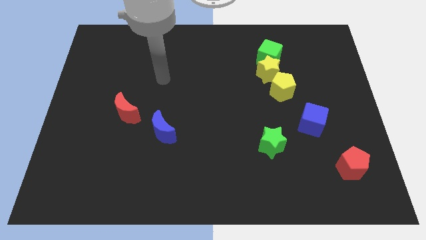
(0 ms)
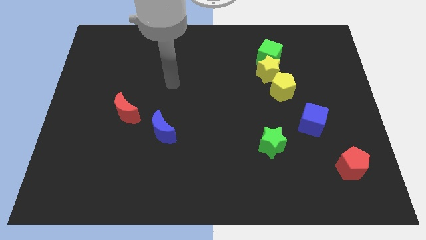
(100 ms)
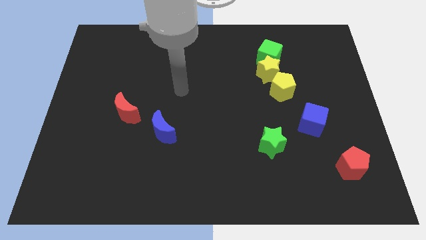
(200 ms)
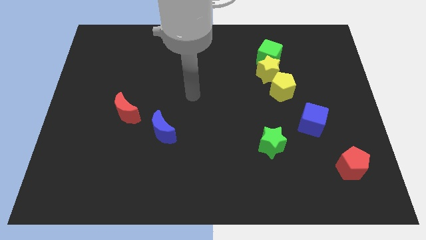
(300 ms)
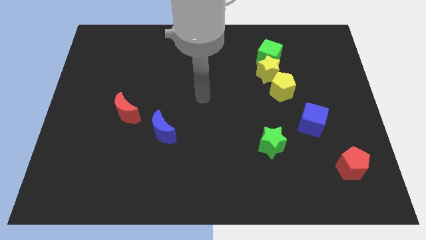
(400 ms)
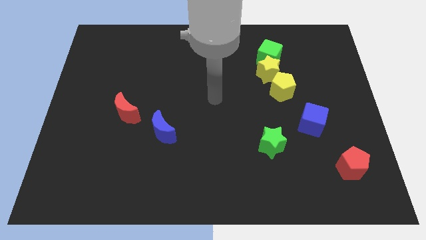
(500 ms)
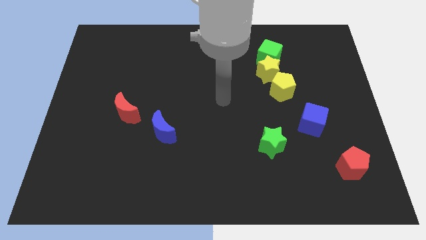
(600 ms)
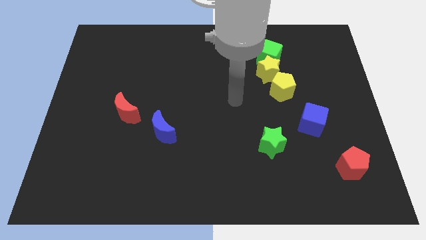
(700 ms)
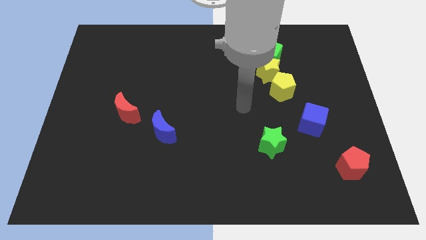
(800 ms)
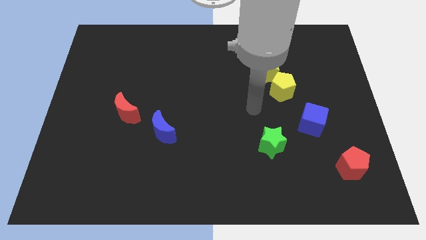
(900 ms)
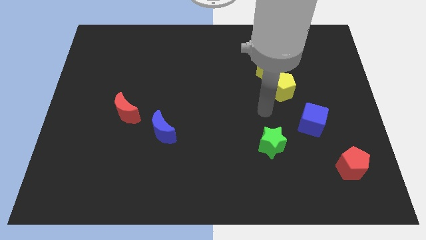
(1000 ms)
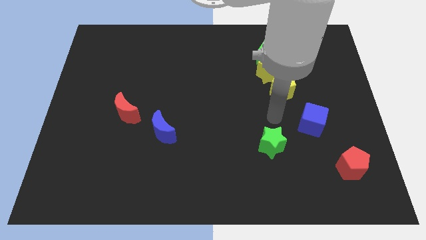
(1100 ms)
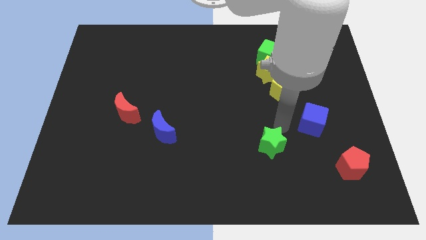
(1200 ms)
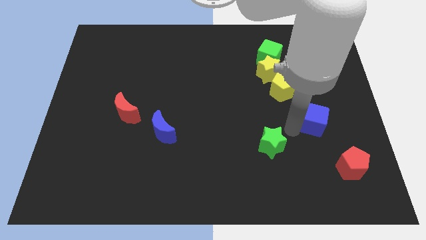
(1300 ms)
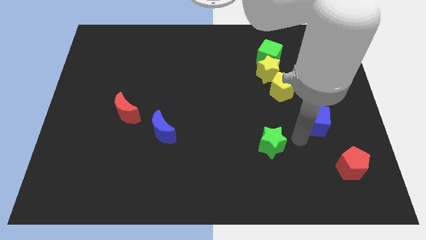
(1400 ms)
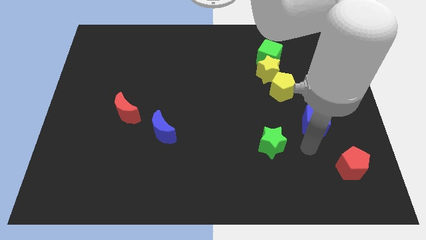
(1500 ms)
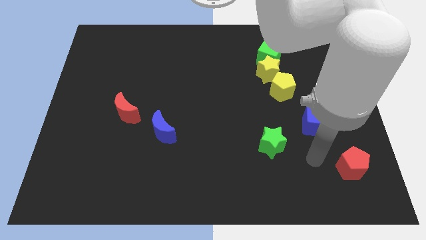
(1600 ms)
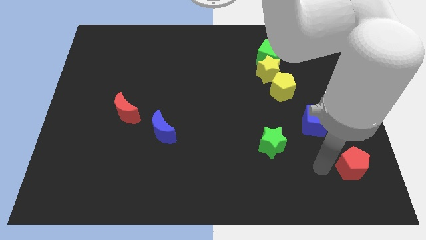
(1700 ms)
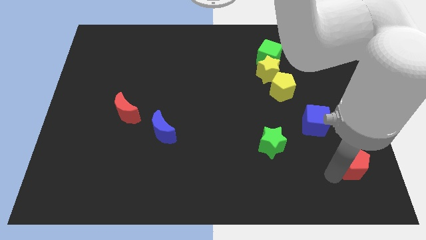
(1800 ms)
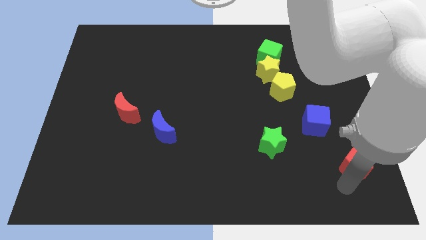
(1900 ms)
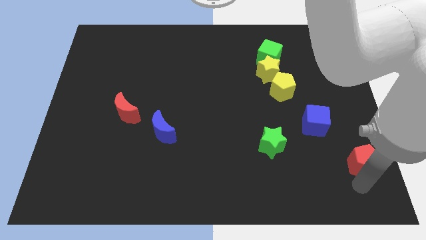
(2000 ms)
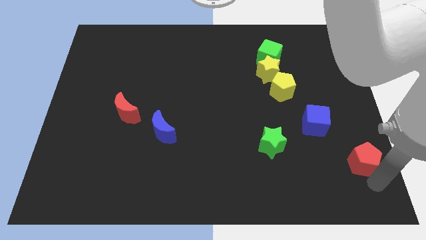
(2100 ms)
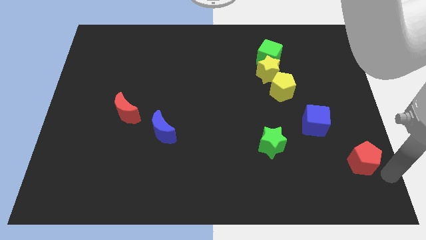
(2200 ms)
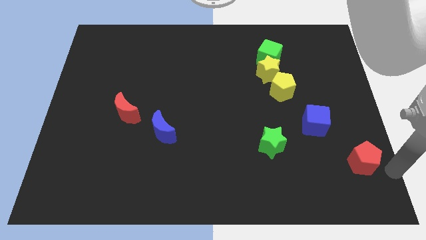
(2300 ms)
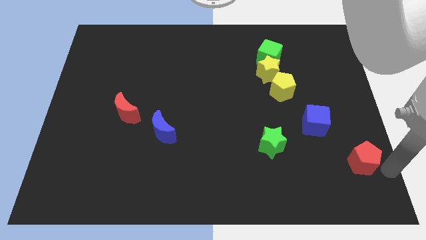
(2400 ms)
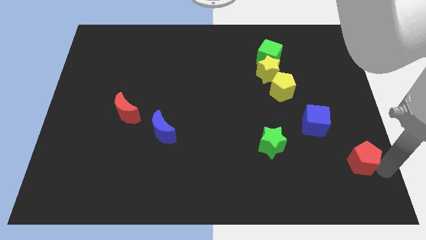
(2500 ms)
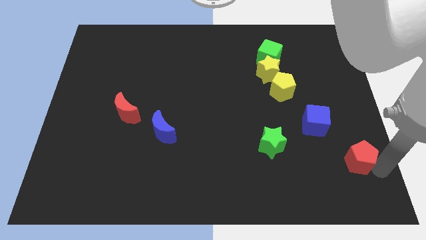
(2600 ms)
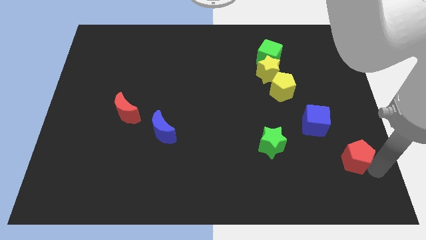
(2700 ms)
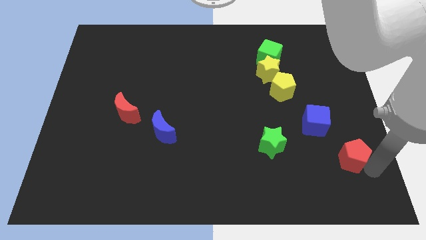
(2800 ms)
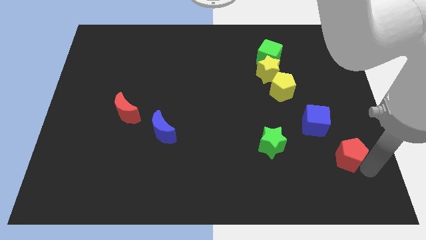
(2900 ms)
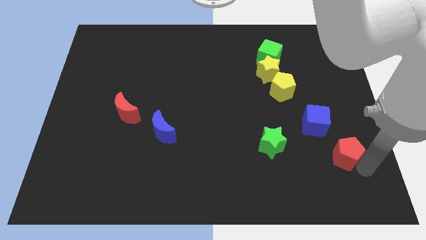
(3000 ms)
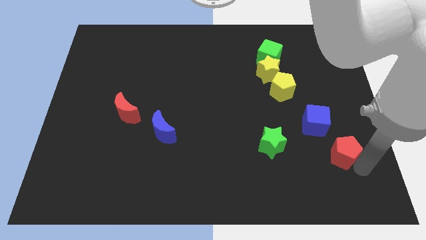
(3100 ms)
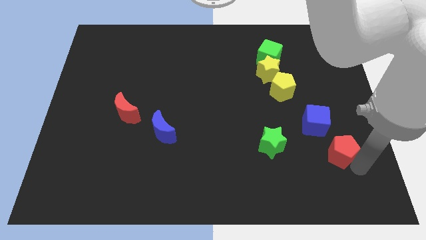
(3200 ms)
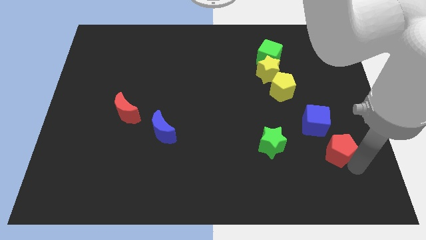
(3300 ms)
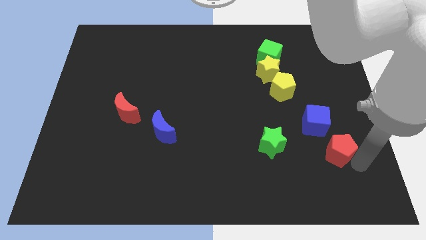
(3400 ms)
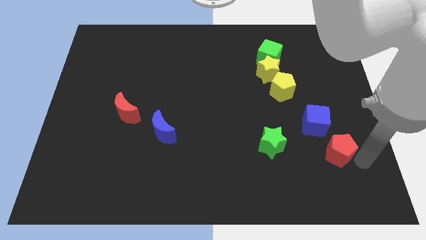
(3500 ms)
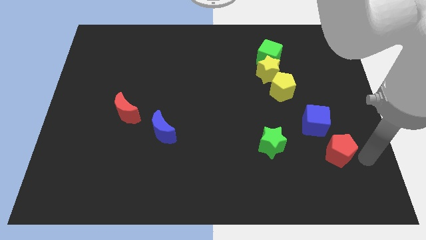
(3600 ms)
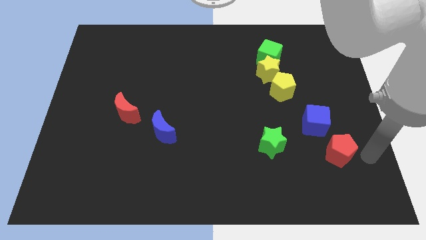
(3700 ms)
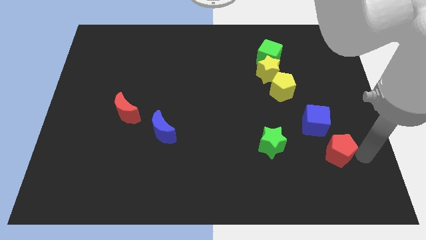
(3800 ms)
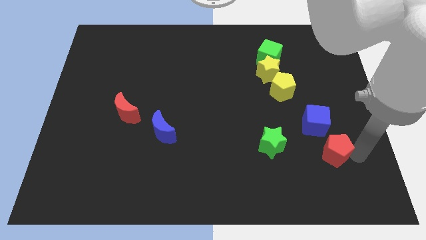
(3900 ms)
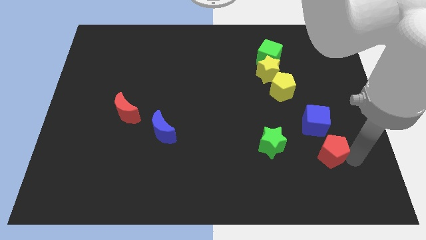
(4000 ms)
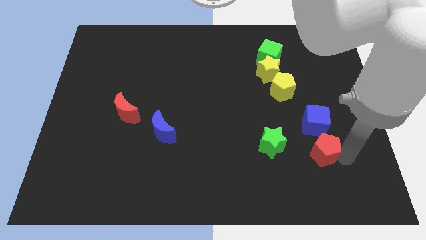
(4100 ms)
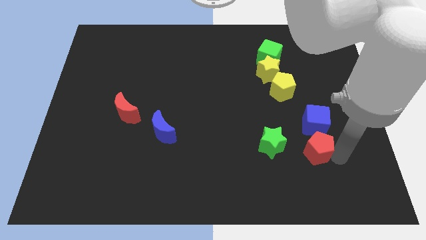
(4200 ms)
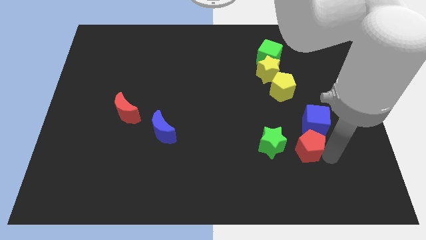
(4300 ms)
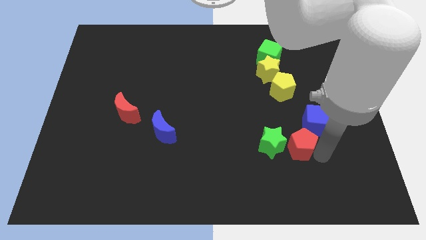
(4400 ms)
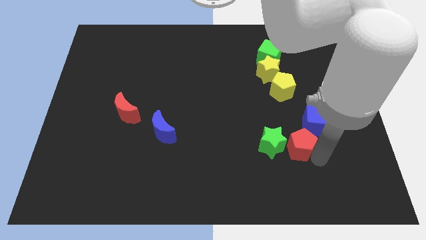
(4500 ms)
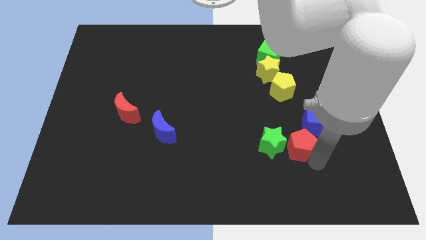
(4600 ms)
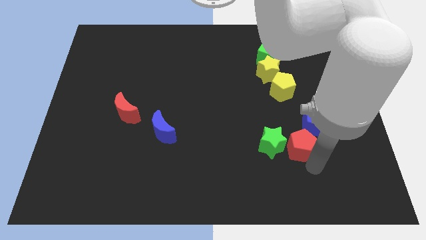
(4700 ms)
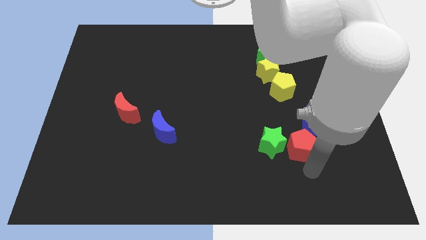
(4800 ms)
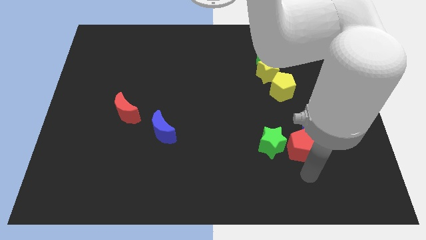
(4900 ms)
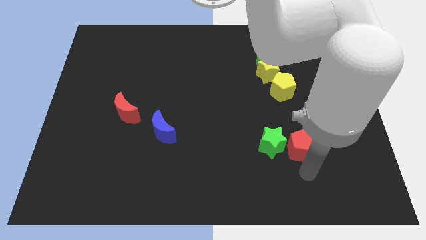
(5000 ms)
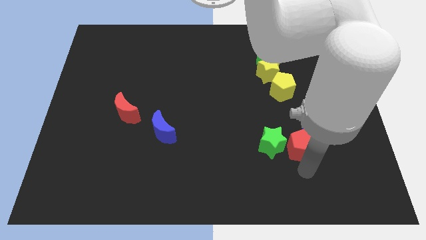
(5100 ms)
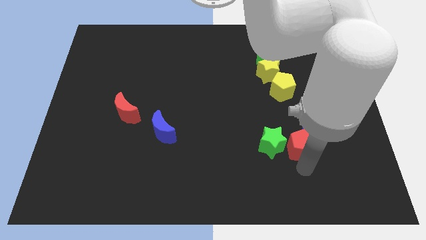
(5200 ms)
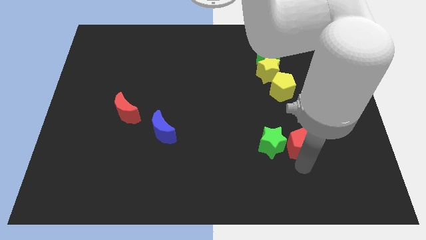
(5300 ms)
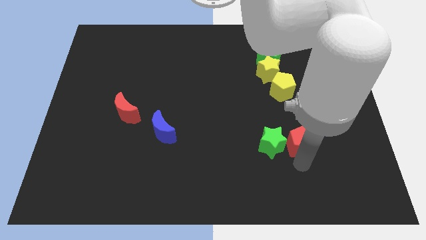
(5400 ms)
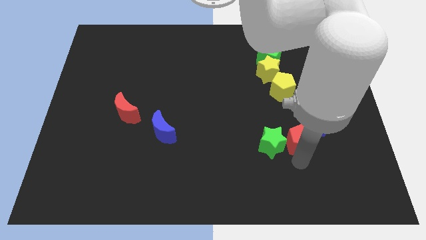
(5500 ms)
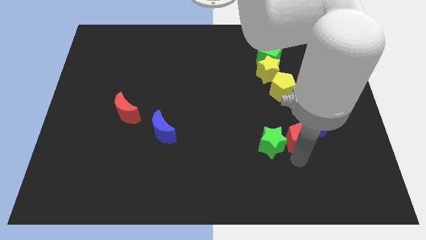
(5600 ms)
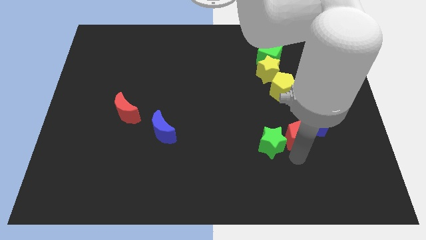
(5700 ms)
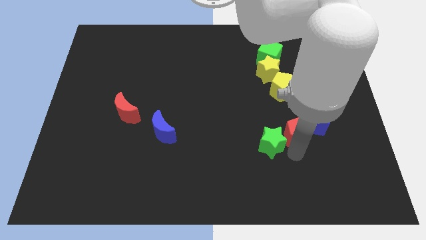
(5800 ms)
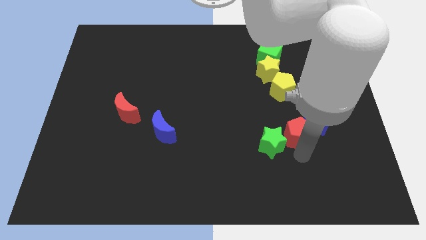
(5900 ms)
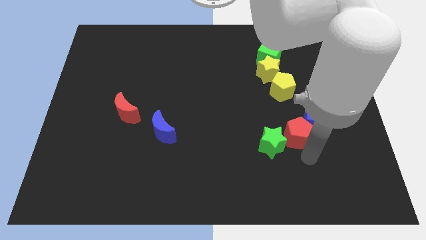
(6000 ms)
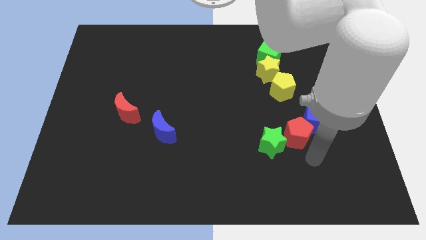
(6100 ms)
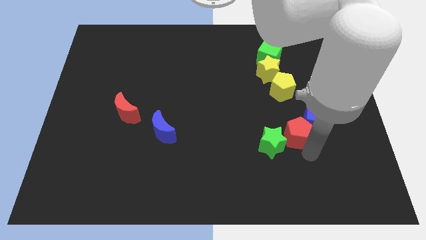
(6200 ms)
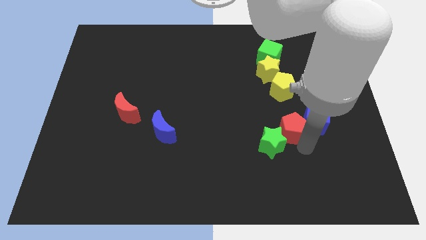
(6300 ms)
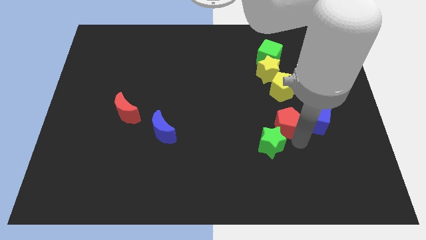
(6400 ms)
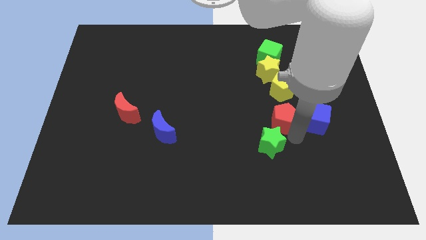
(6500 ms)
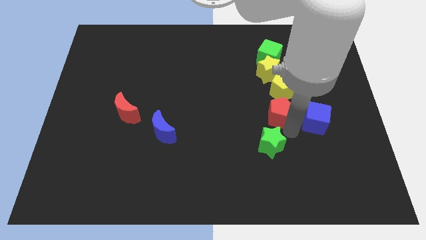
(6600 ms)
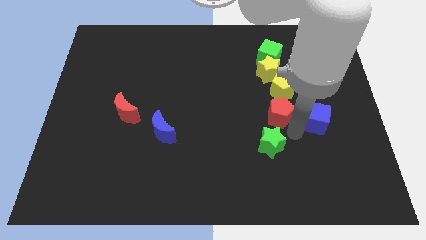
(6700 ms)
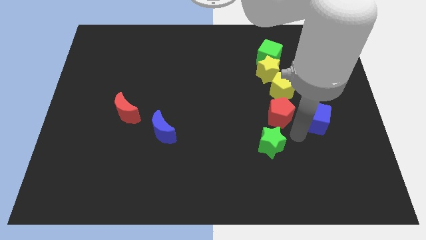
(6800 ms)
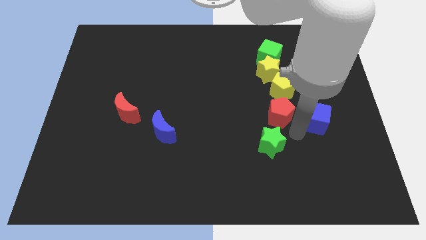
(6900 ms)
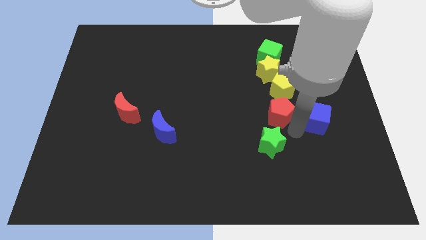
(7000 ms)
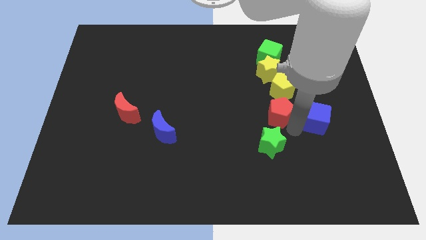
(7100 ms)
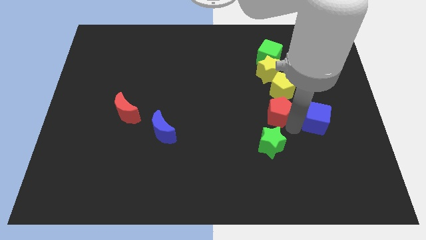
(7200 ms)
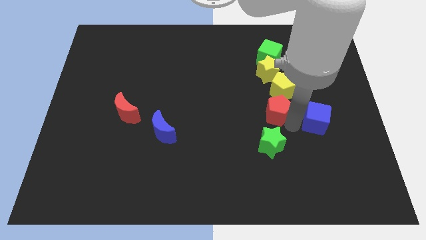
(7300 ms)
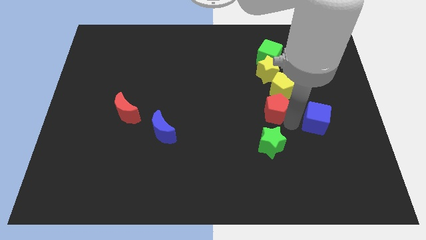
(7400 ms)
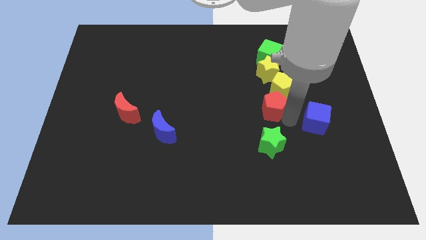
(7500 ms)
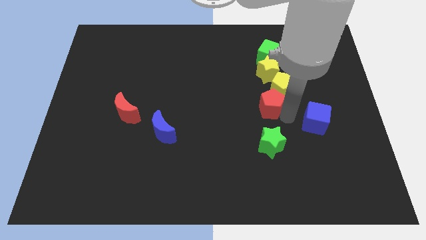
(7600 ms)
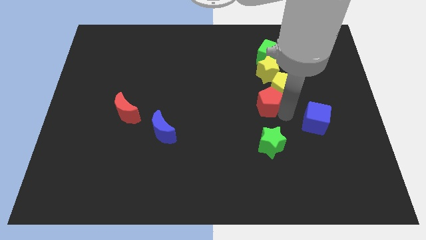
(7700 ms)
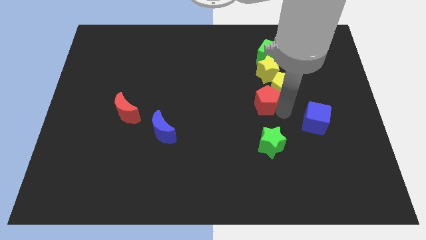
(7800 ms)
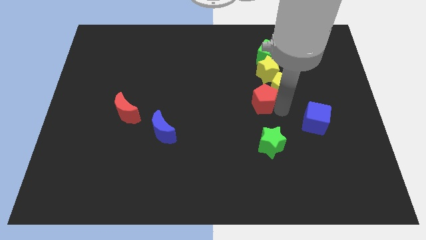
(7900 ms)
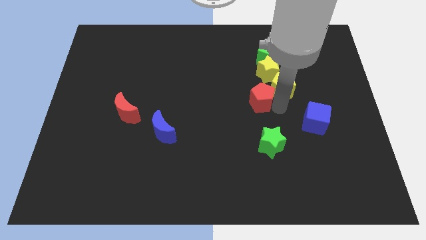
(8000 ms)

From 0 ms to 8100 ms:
put the red pentagon diagonally down and to the left of the yellow star
